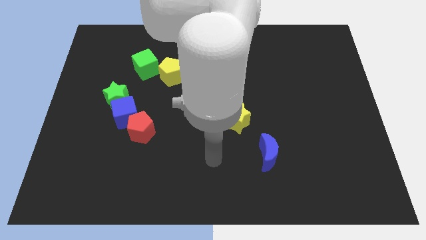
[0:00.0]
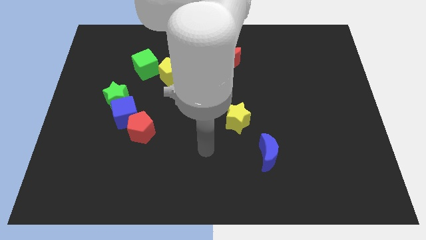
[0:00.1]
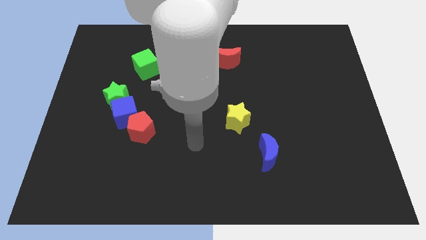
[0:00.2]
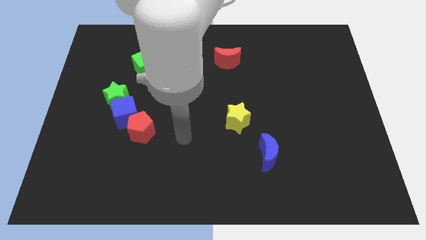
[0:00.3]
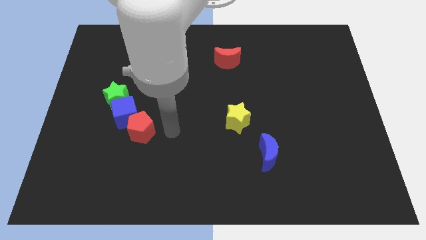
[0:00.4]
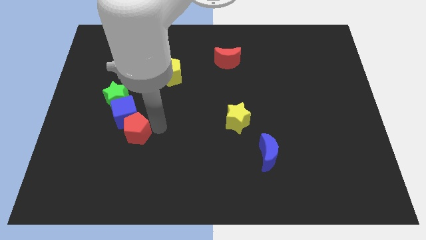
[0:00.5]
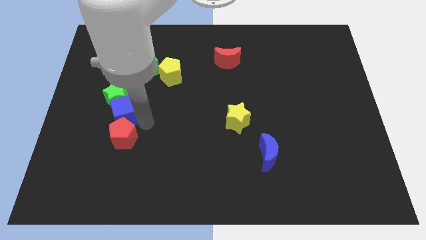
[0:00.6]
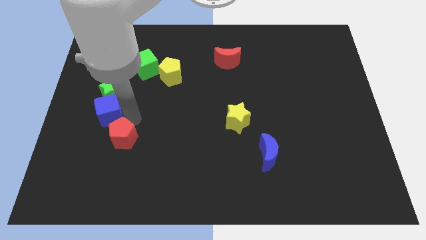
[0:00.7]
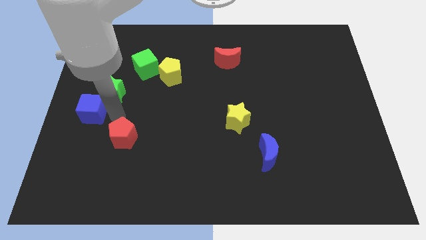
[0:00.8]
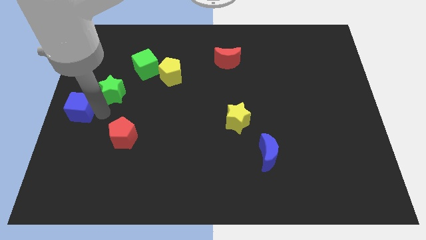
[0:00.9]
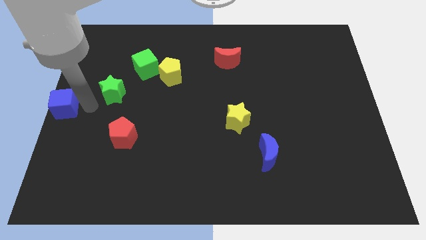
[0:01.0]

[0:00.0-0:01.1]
move the green star away from the blue cube

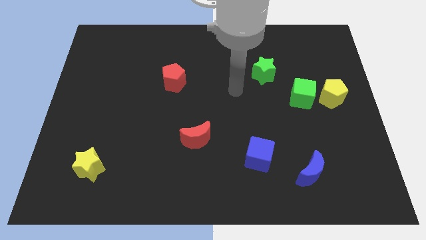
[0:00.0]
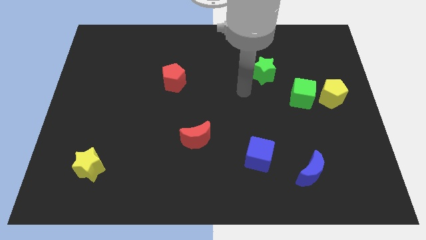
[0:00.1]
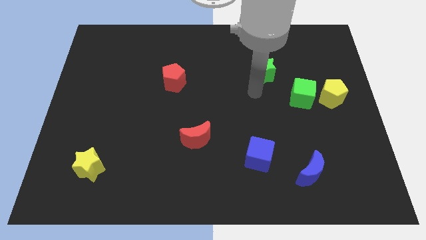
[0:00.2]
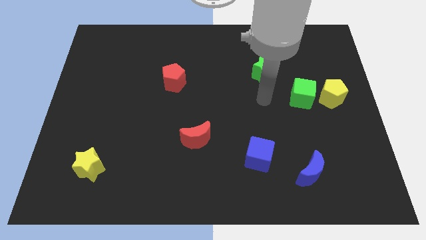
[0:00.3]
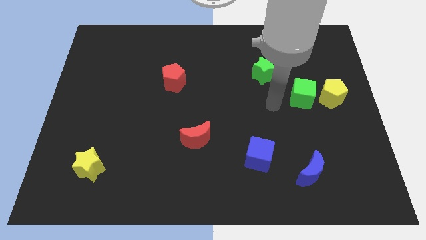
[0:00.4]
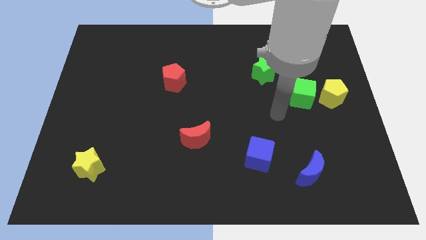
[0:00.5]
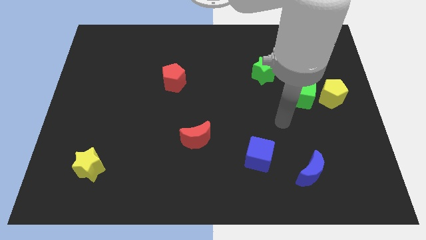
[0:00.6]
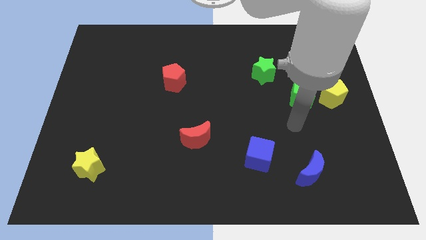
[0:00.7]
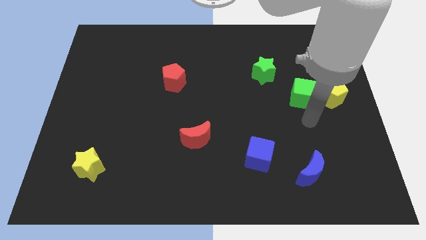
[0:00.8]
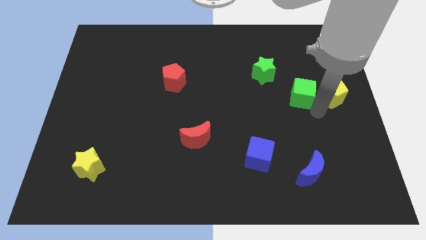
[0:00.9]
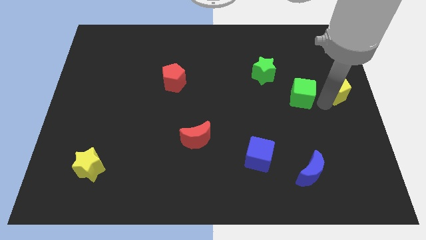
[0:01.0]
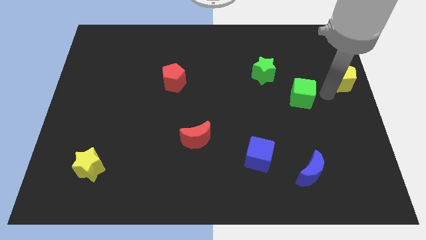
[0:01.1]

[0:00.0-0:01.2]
pull the green cube apart from the yellow pentagon

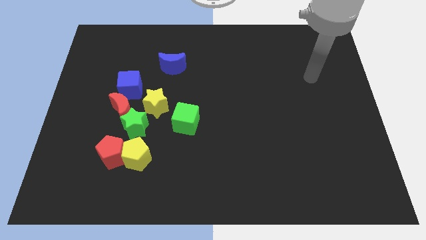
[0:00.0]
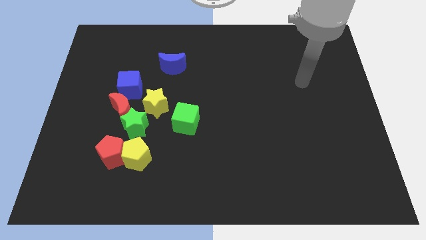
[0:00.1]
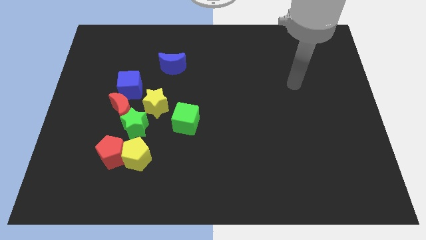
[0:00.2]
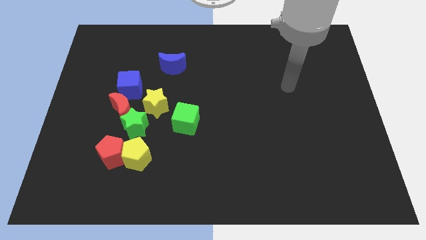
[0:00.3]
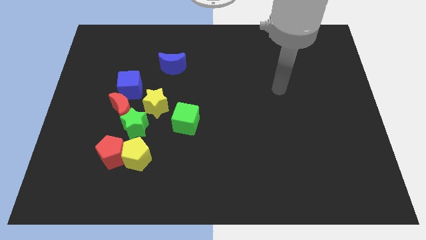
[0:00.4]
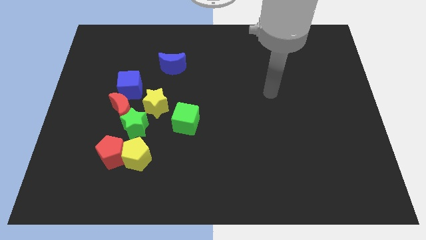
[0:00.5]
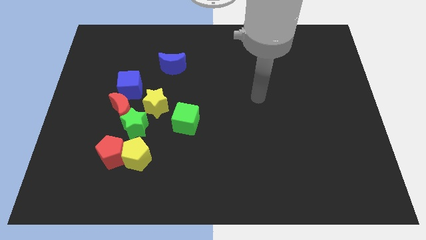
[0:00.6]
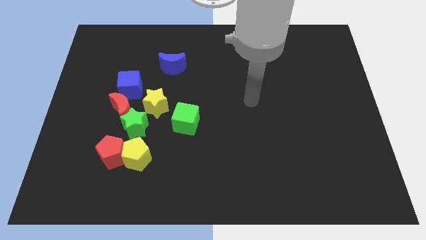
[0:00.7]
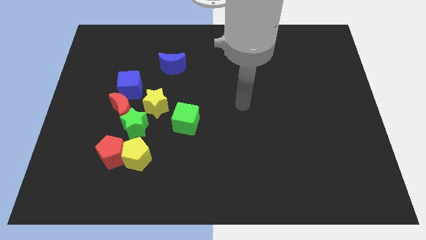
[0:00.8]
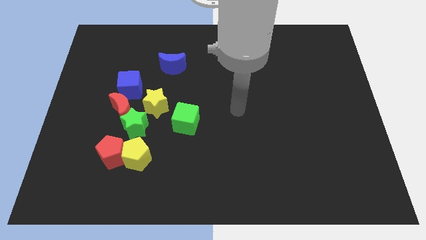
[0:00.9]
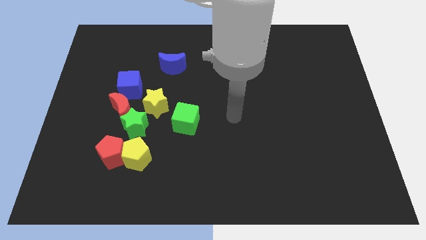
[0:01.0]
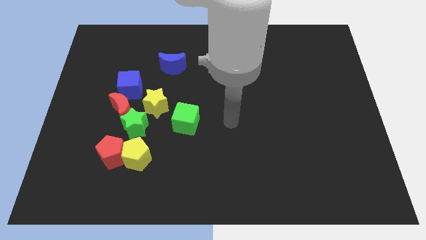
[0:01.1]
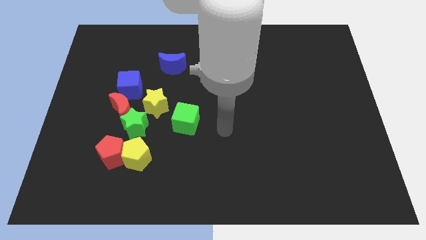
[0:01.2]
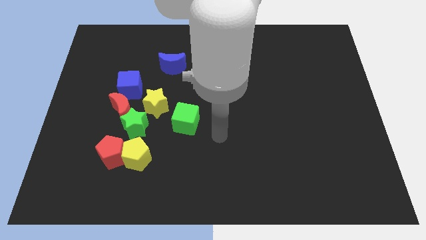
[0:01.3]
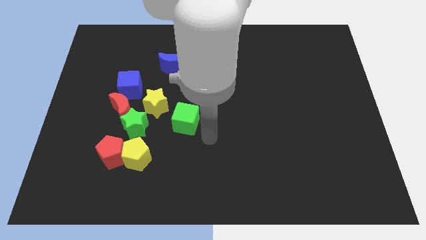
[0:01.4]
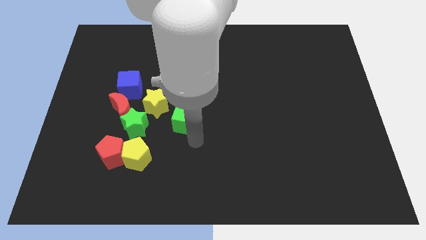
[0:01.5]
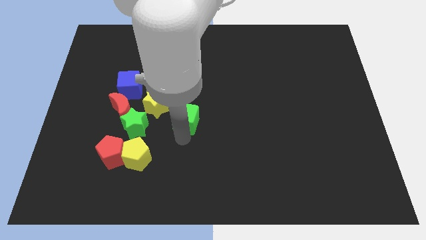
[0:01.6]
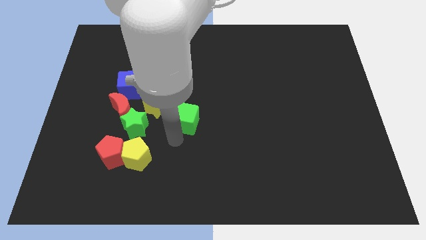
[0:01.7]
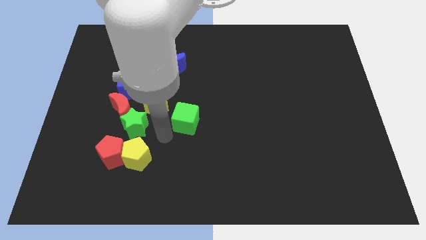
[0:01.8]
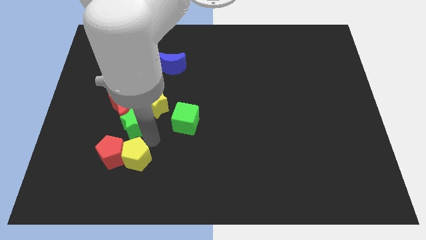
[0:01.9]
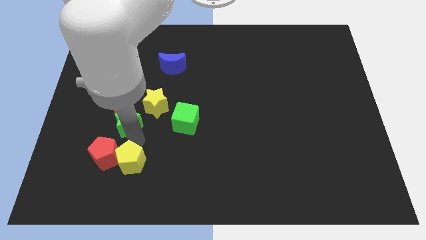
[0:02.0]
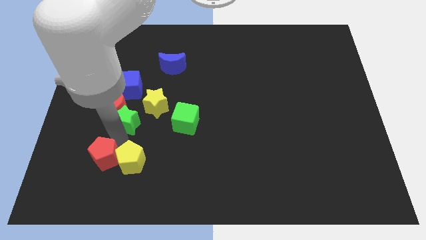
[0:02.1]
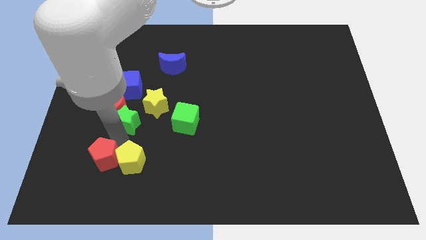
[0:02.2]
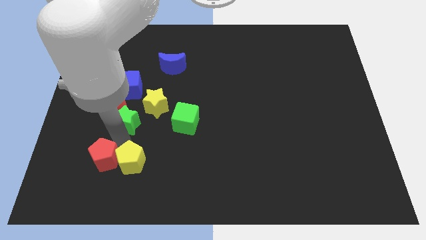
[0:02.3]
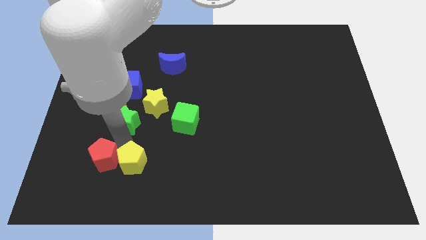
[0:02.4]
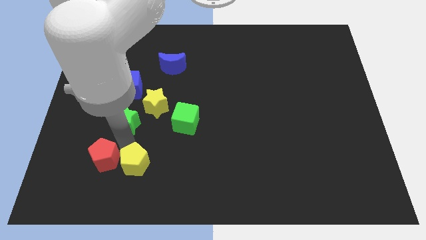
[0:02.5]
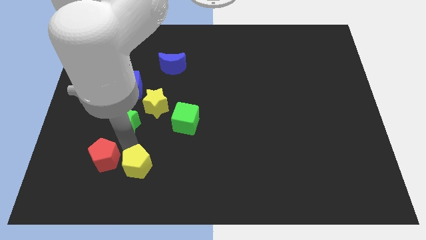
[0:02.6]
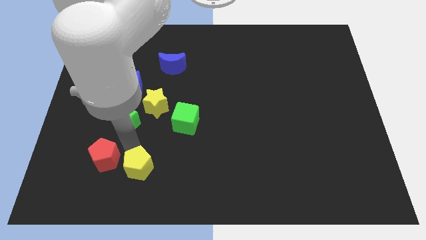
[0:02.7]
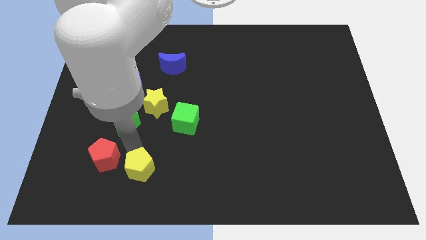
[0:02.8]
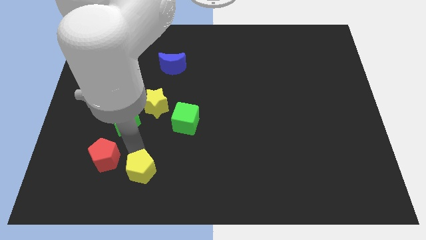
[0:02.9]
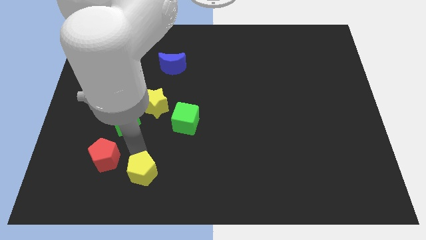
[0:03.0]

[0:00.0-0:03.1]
move the yellow pentagon away from the red pentagon and green star

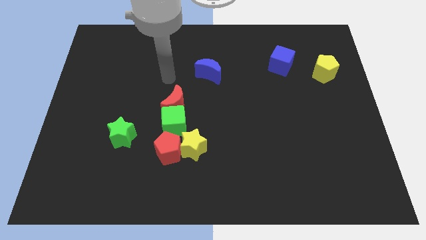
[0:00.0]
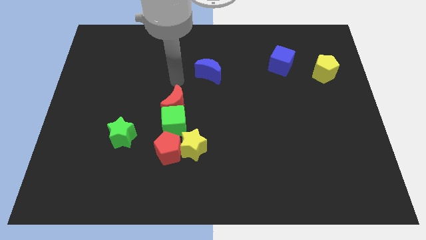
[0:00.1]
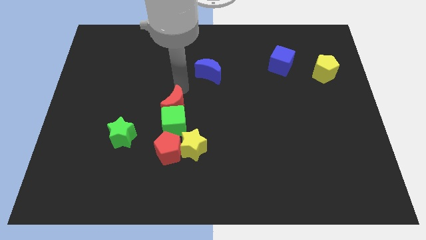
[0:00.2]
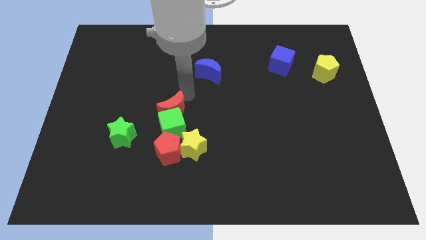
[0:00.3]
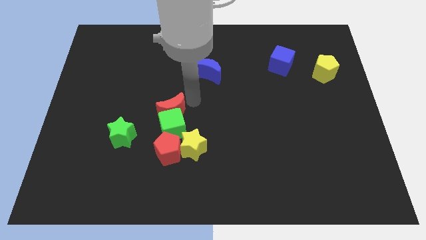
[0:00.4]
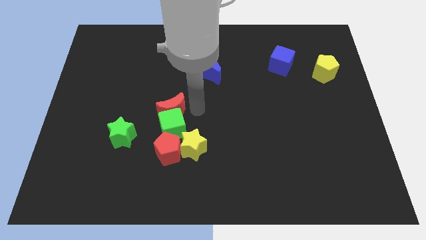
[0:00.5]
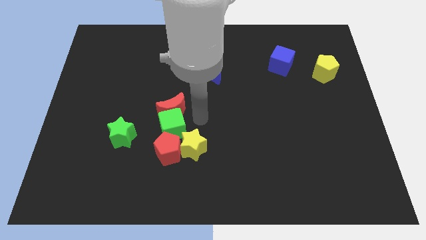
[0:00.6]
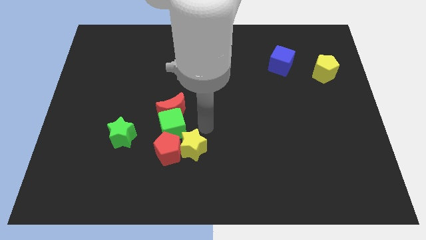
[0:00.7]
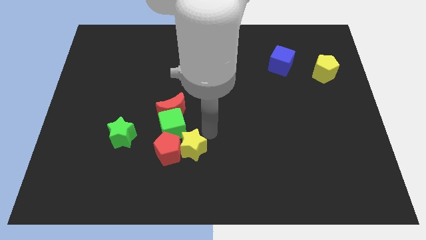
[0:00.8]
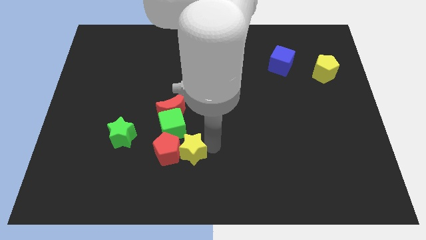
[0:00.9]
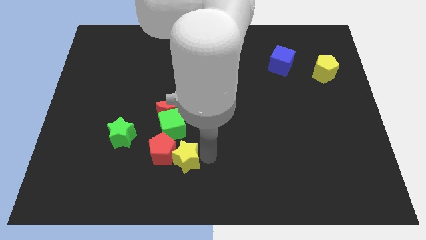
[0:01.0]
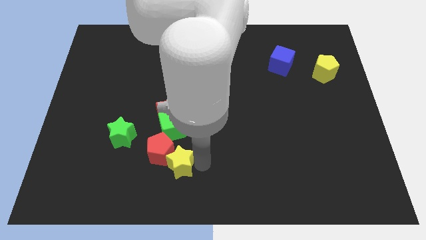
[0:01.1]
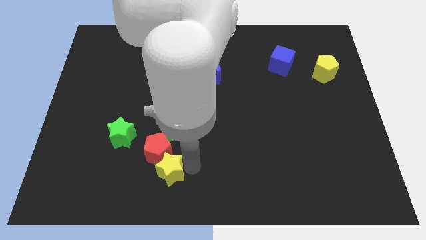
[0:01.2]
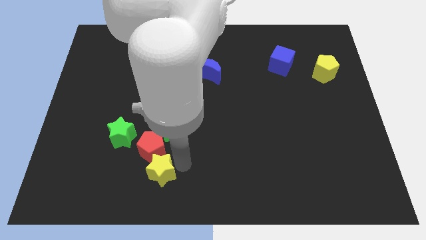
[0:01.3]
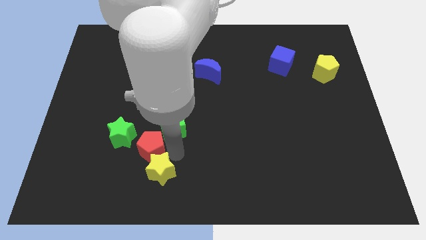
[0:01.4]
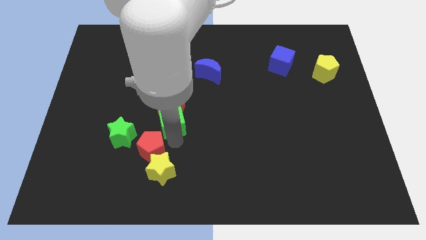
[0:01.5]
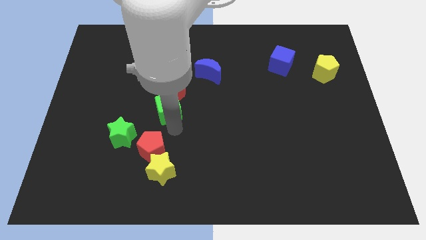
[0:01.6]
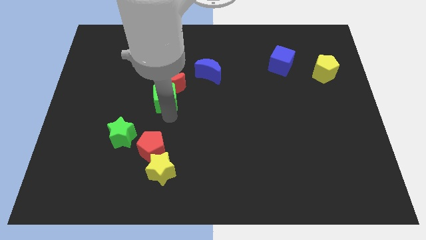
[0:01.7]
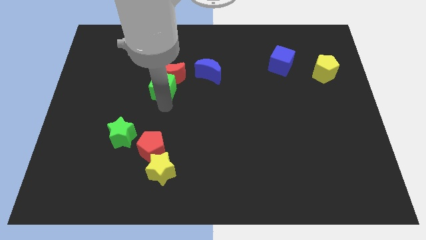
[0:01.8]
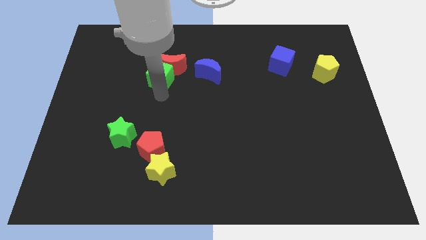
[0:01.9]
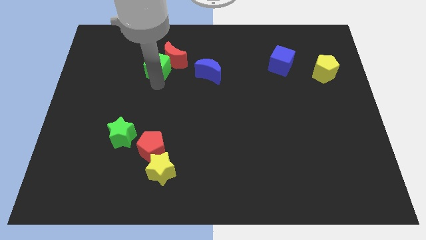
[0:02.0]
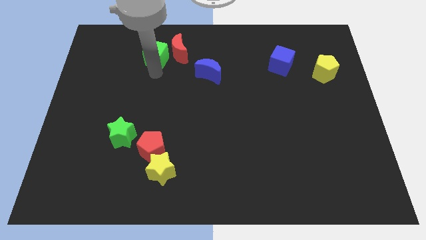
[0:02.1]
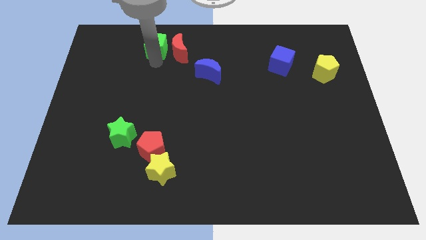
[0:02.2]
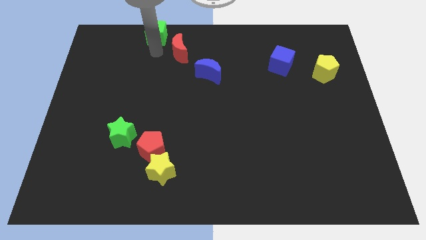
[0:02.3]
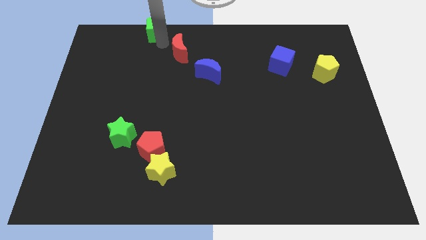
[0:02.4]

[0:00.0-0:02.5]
separate the red moon from the green cube

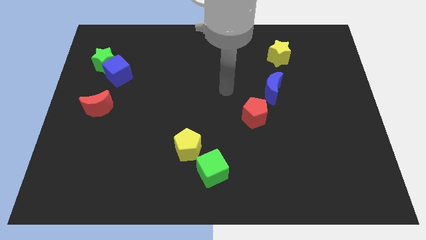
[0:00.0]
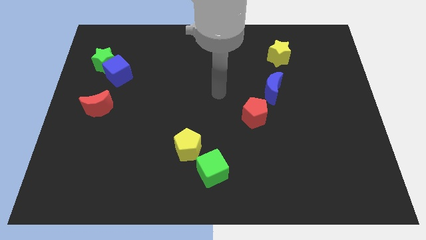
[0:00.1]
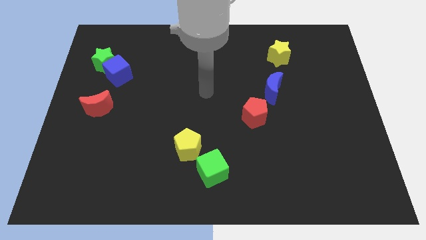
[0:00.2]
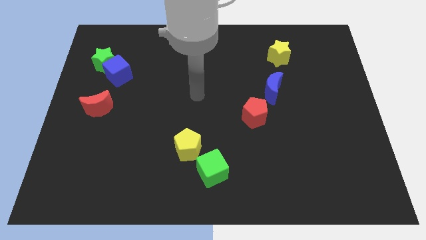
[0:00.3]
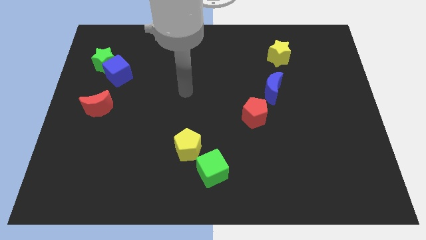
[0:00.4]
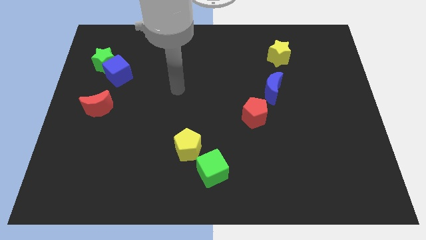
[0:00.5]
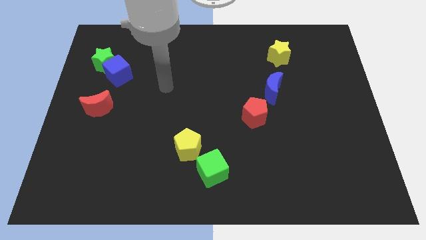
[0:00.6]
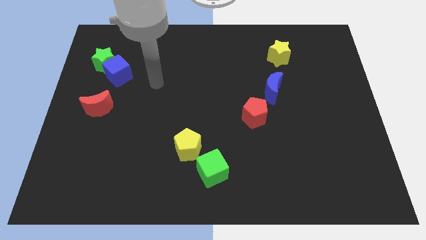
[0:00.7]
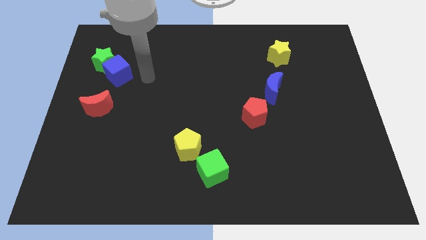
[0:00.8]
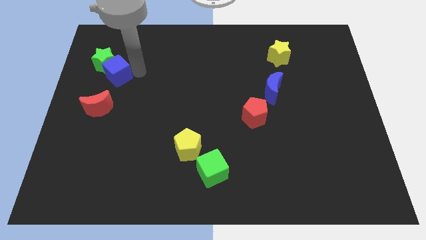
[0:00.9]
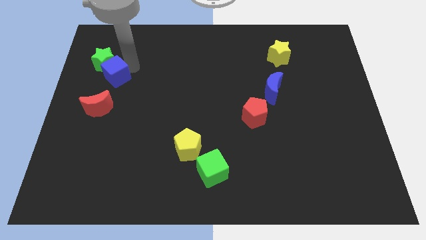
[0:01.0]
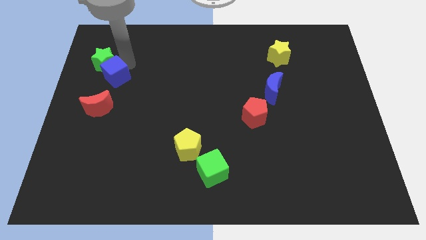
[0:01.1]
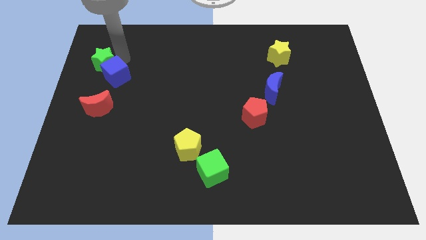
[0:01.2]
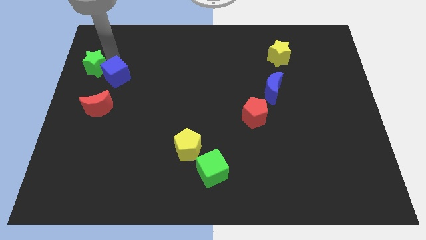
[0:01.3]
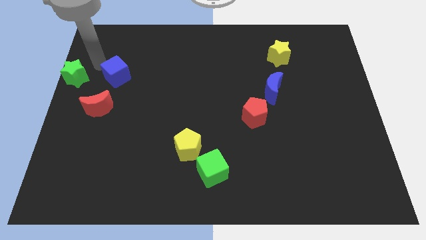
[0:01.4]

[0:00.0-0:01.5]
move the blue cube away from the green star
